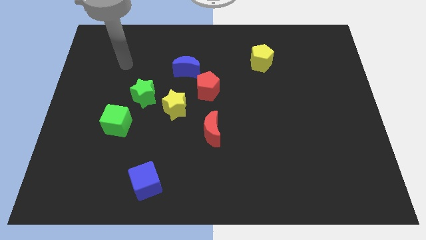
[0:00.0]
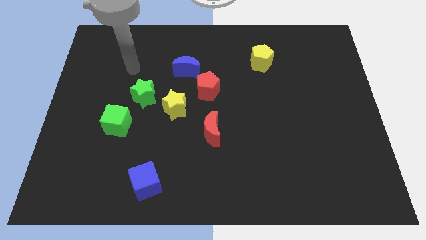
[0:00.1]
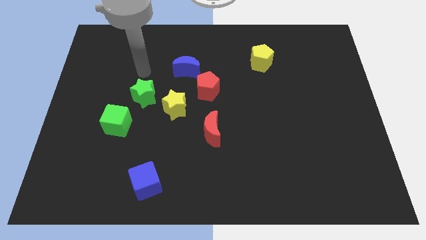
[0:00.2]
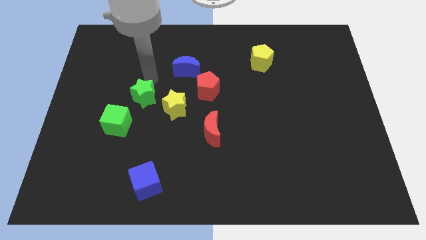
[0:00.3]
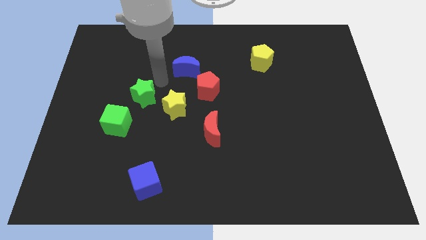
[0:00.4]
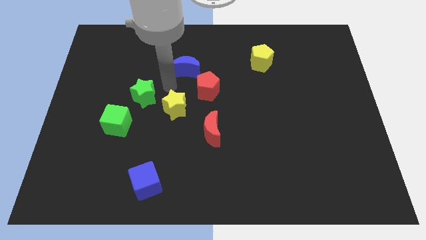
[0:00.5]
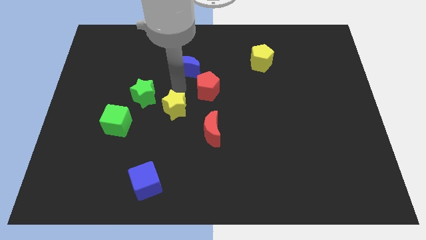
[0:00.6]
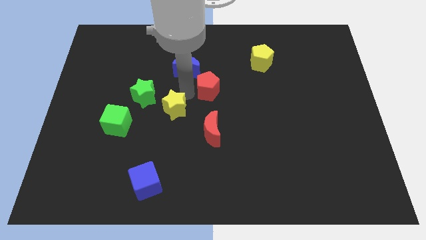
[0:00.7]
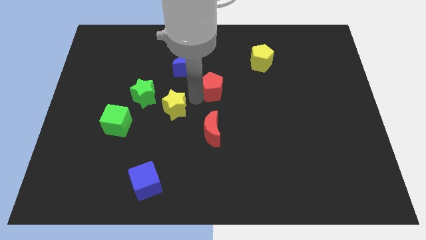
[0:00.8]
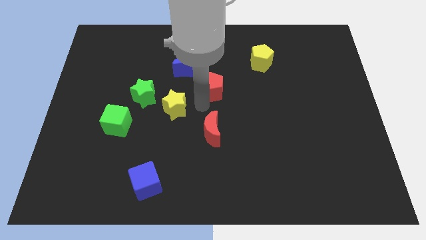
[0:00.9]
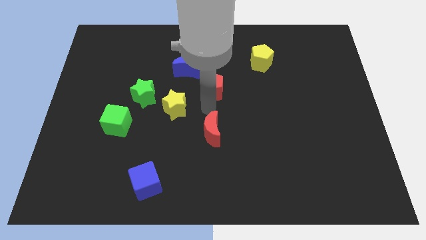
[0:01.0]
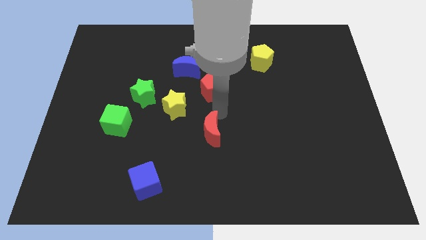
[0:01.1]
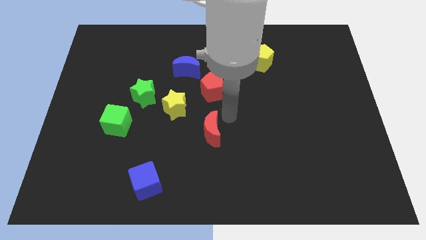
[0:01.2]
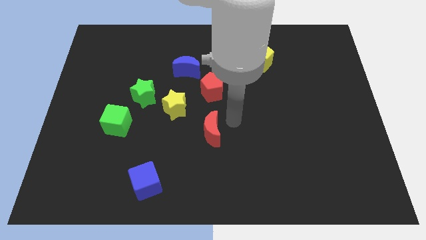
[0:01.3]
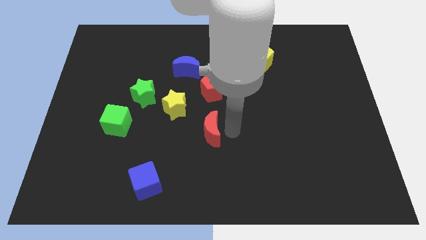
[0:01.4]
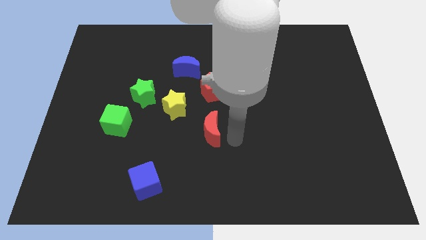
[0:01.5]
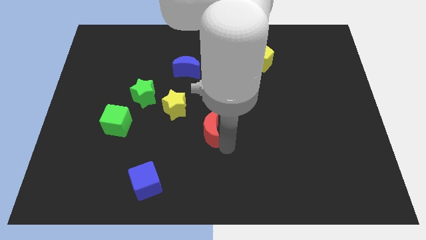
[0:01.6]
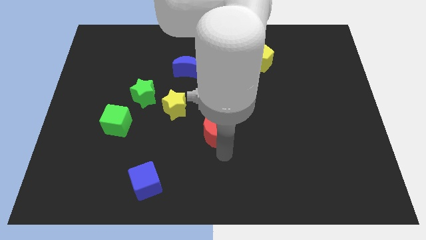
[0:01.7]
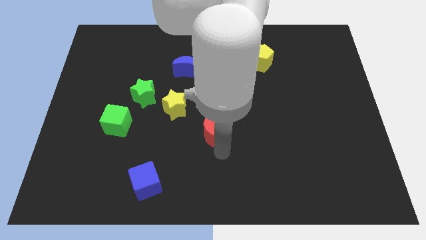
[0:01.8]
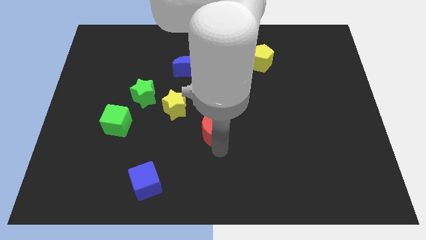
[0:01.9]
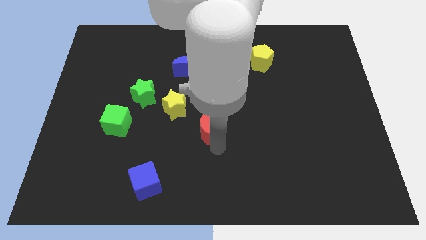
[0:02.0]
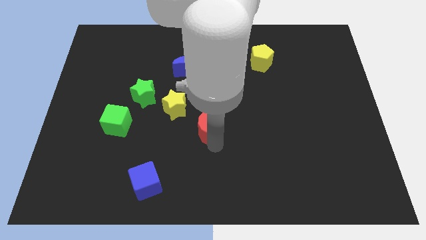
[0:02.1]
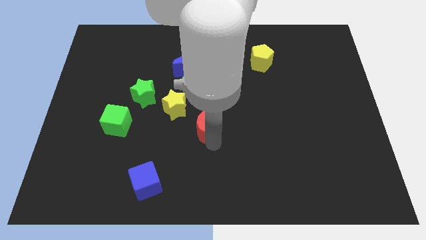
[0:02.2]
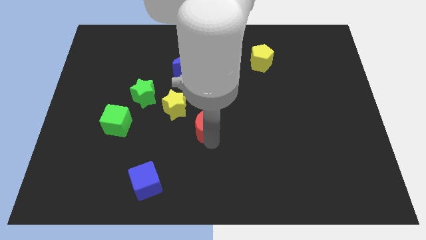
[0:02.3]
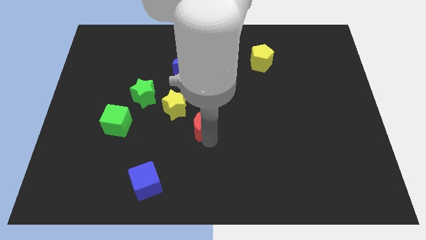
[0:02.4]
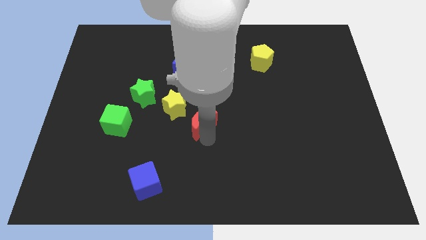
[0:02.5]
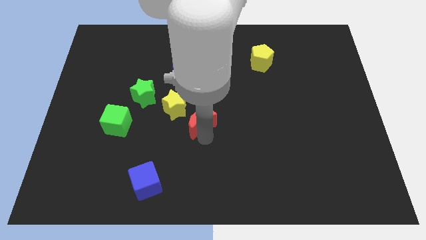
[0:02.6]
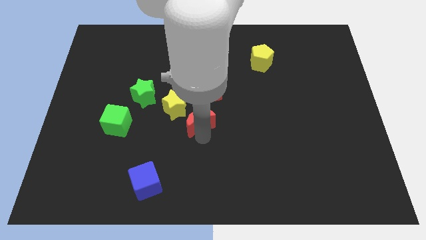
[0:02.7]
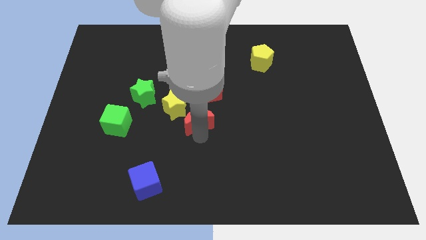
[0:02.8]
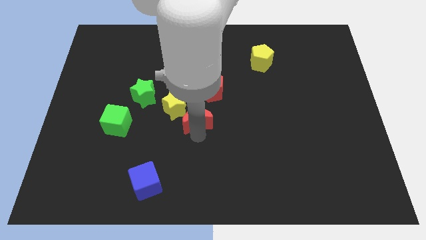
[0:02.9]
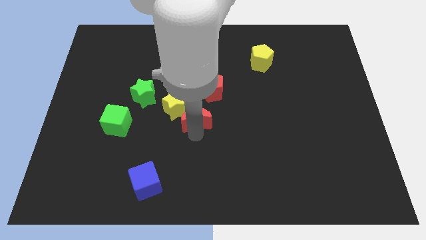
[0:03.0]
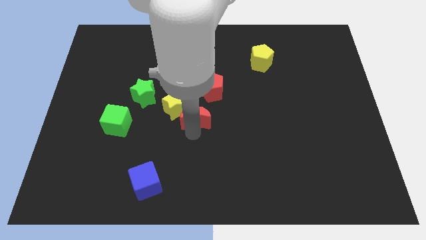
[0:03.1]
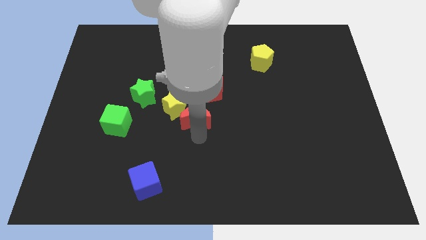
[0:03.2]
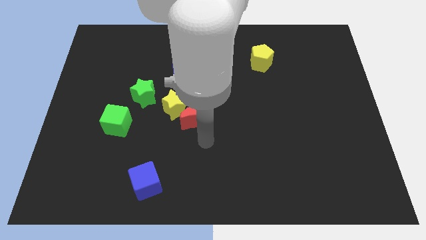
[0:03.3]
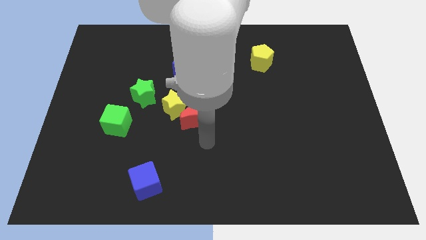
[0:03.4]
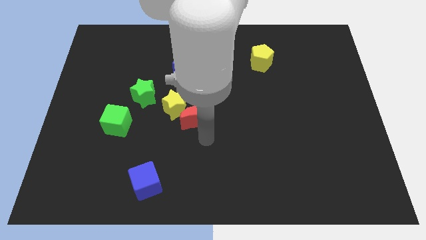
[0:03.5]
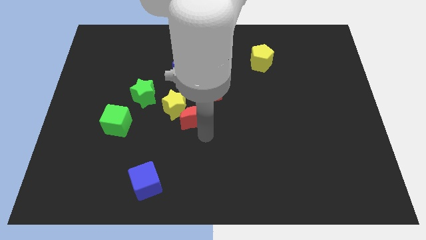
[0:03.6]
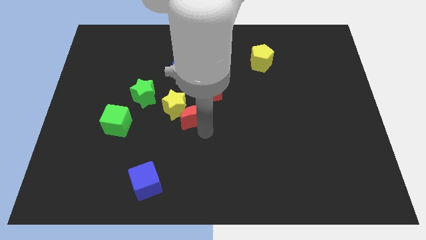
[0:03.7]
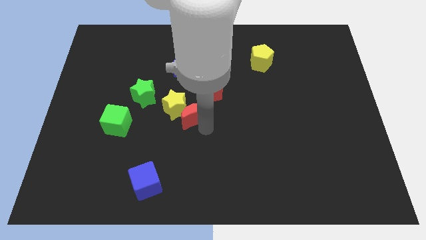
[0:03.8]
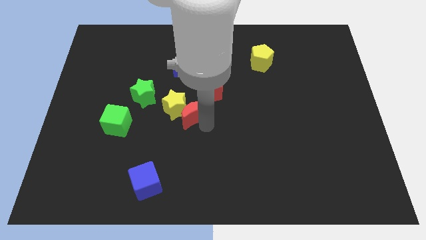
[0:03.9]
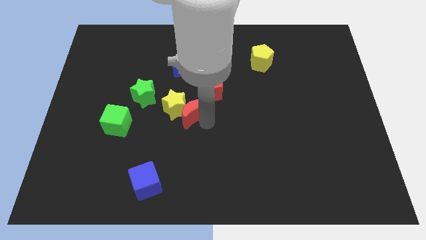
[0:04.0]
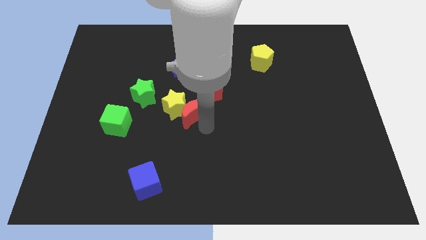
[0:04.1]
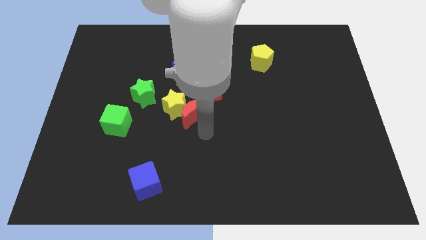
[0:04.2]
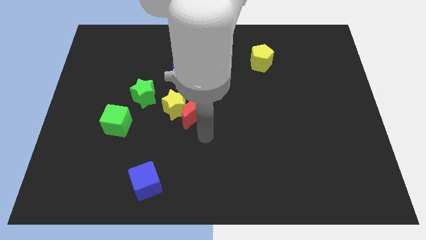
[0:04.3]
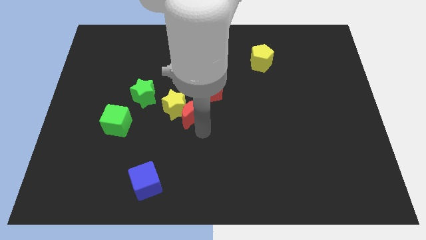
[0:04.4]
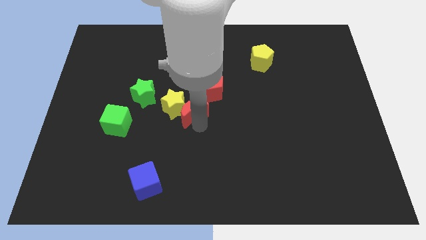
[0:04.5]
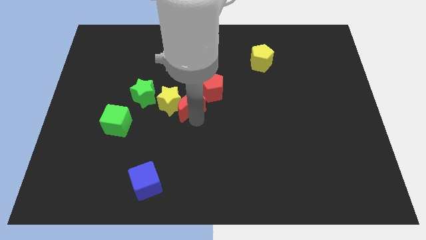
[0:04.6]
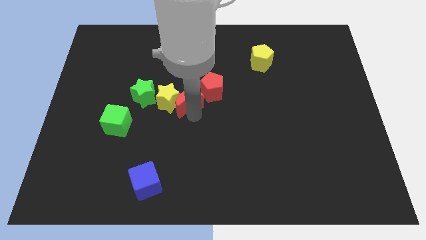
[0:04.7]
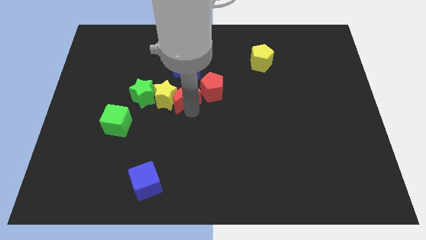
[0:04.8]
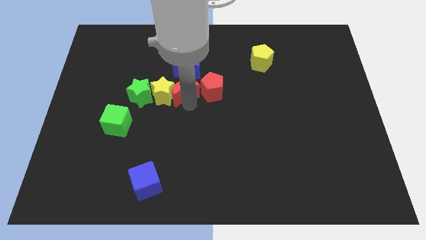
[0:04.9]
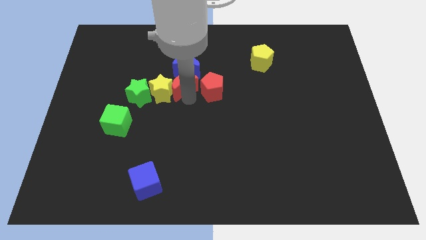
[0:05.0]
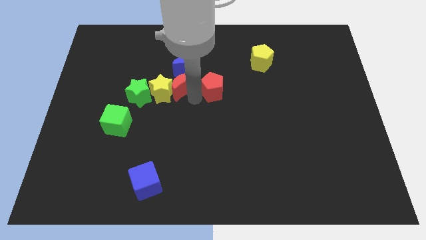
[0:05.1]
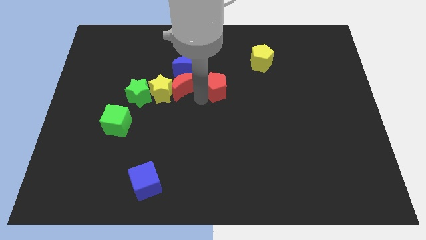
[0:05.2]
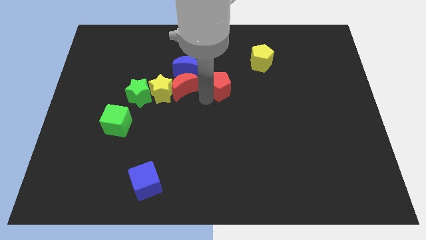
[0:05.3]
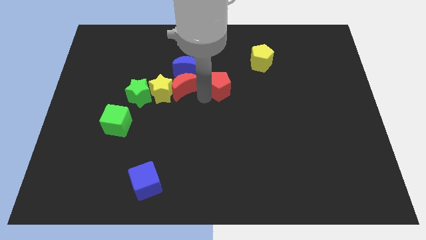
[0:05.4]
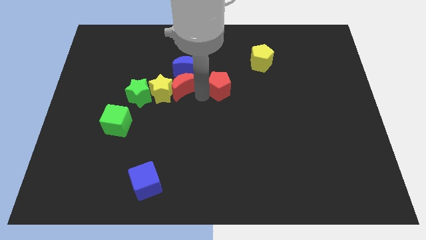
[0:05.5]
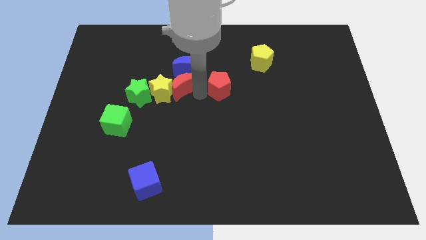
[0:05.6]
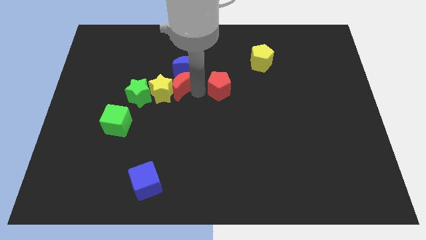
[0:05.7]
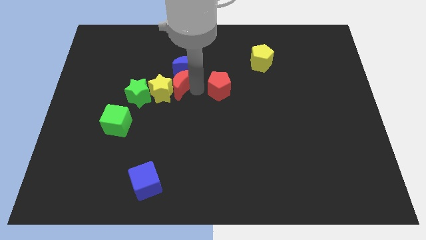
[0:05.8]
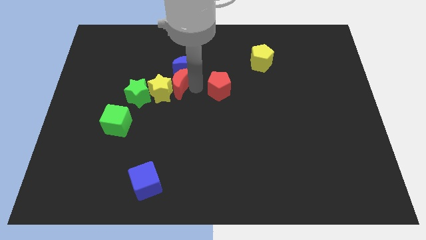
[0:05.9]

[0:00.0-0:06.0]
put the red moon diagonally up and to the right of the green star

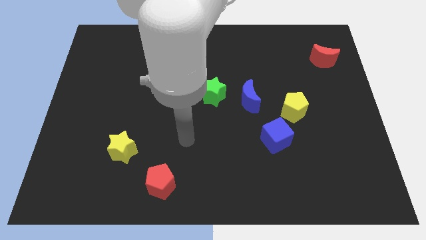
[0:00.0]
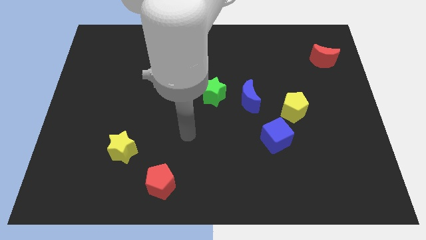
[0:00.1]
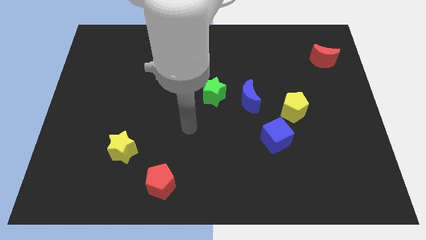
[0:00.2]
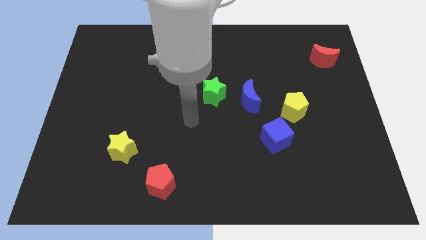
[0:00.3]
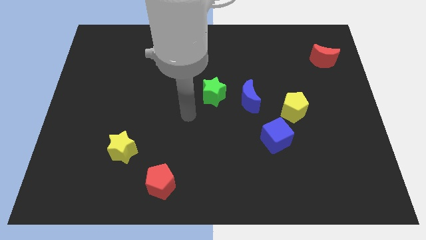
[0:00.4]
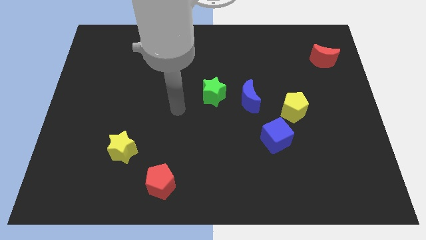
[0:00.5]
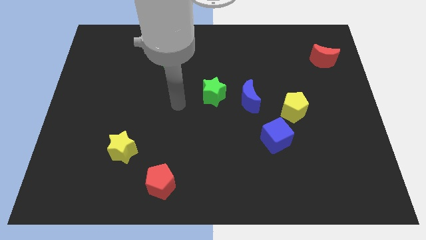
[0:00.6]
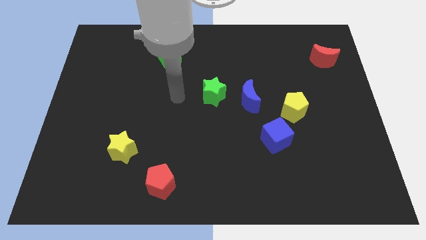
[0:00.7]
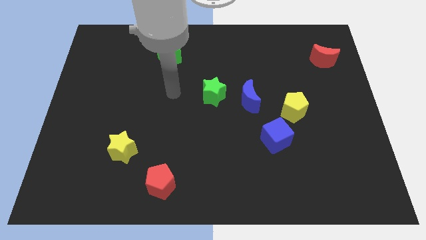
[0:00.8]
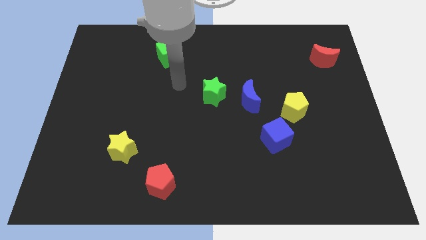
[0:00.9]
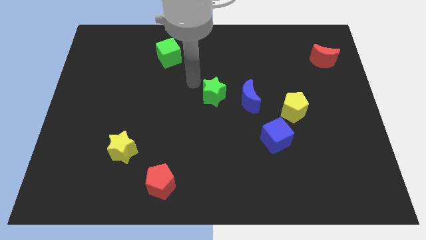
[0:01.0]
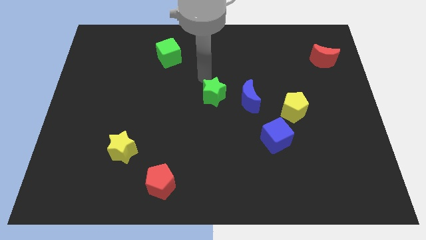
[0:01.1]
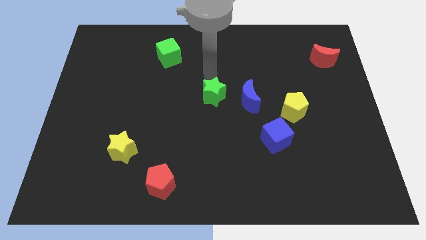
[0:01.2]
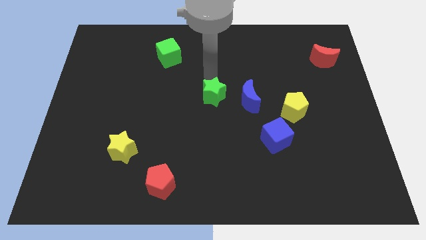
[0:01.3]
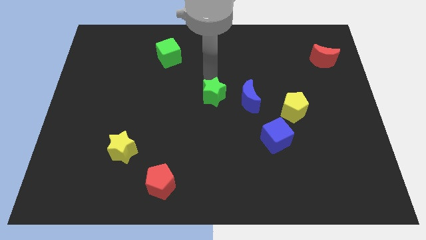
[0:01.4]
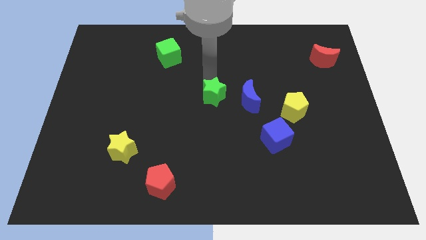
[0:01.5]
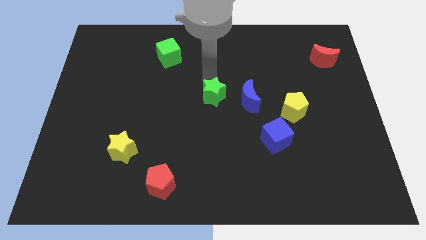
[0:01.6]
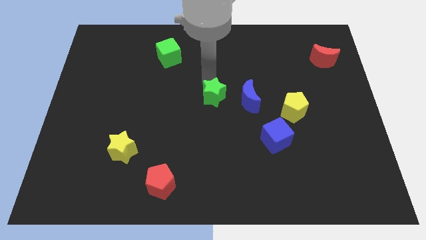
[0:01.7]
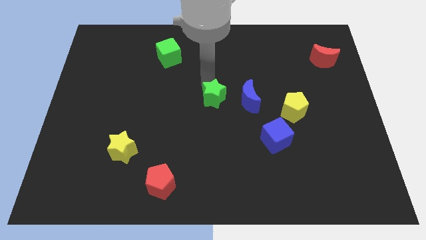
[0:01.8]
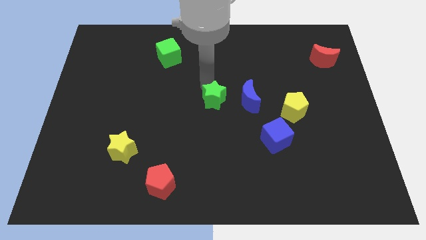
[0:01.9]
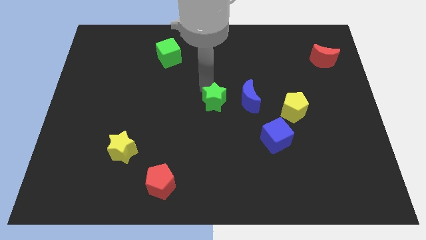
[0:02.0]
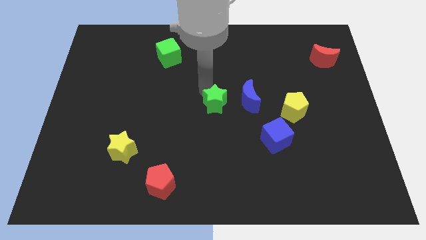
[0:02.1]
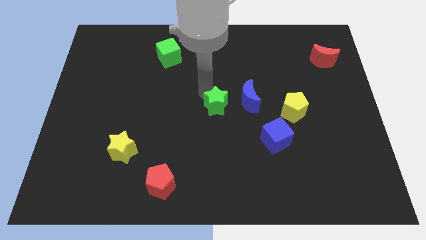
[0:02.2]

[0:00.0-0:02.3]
put the green star to the bottom left side of the blue moon
